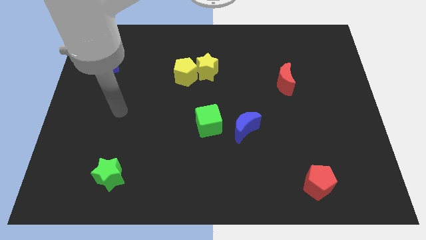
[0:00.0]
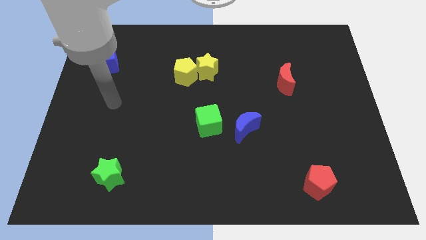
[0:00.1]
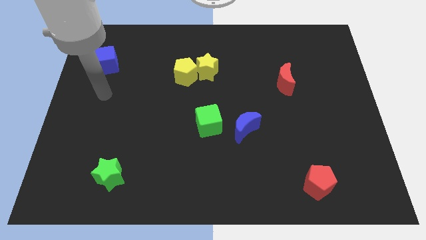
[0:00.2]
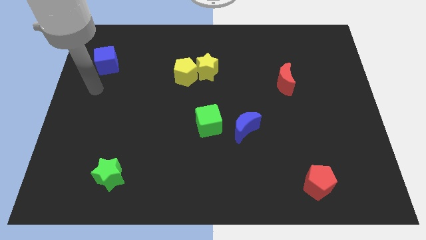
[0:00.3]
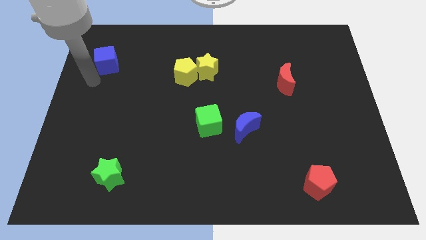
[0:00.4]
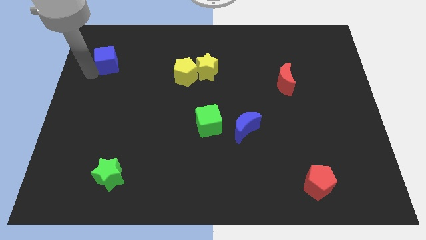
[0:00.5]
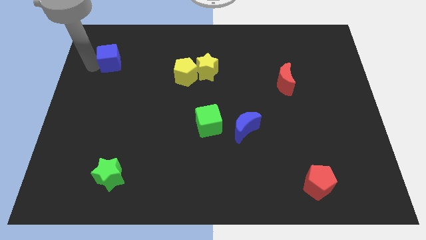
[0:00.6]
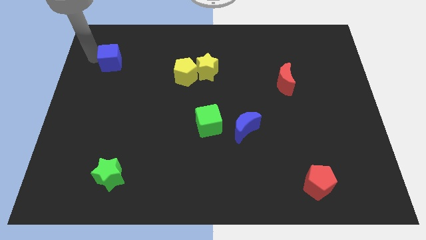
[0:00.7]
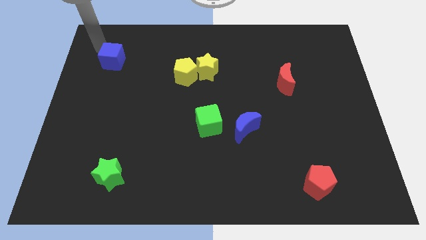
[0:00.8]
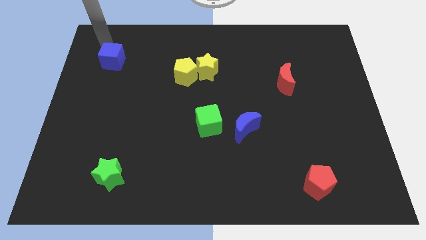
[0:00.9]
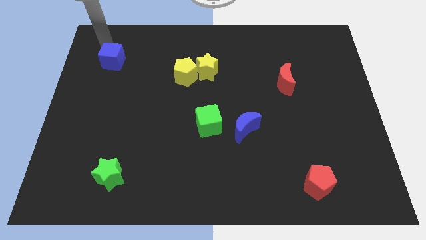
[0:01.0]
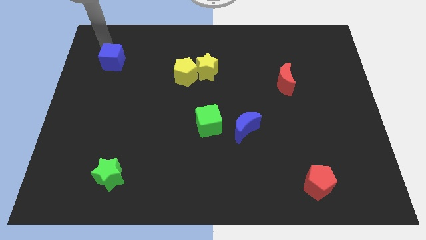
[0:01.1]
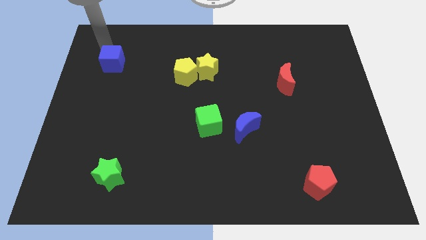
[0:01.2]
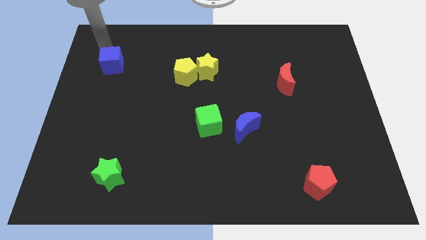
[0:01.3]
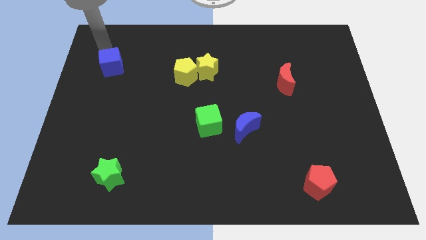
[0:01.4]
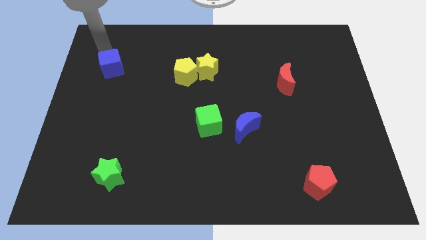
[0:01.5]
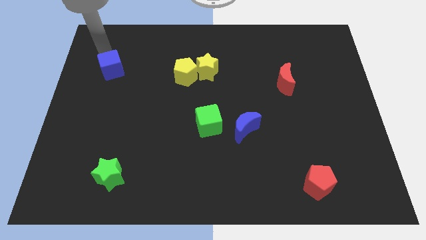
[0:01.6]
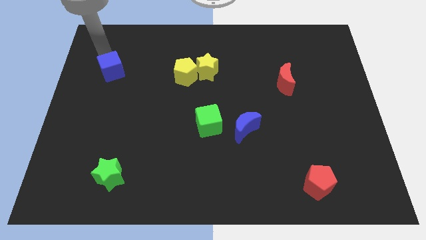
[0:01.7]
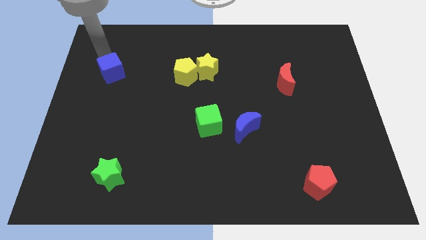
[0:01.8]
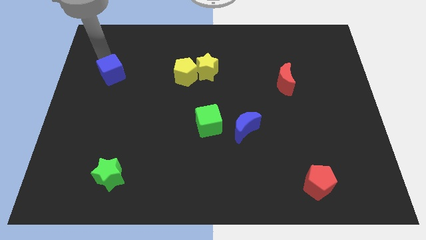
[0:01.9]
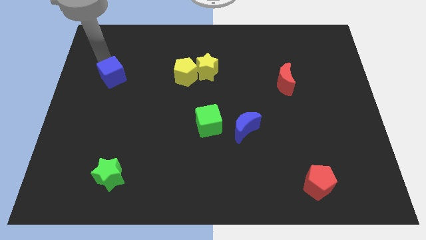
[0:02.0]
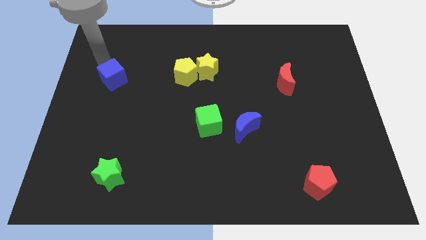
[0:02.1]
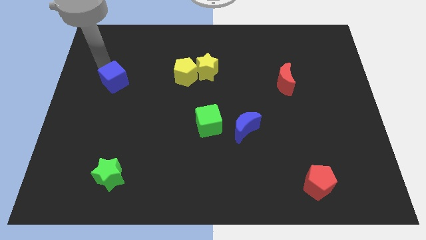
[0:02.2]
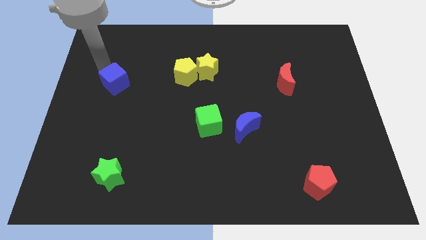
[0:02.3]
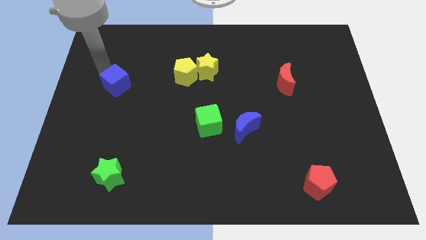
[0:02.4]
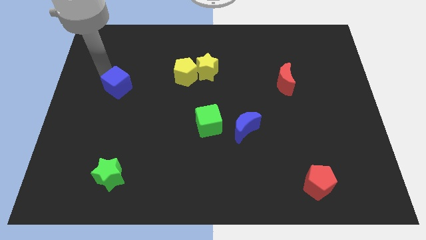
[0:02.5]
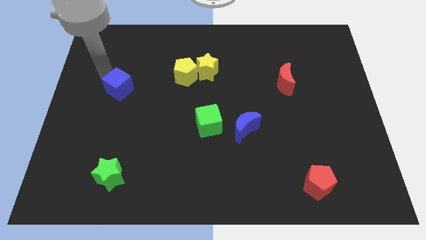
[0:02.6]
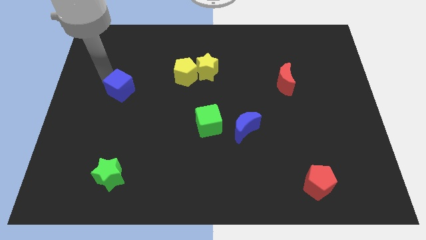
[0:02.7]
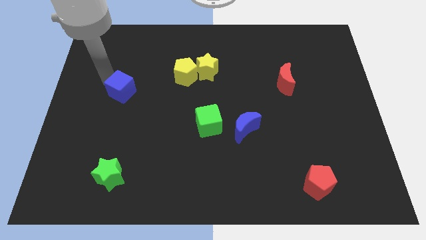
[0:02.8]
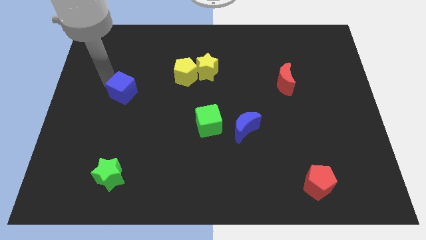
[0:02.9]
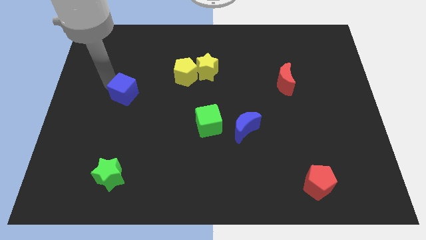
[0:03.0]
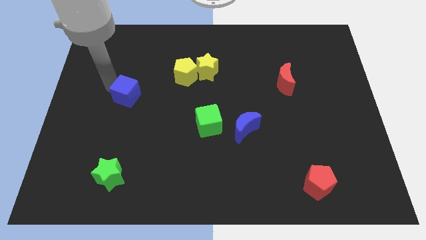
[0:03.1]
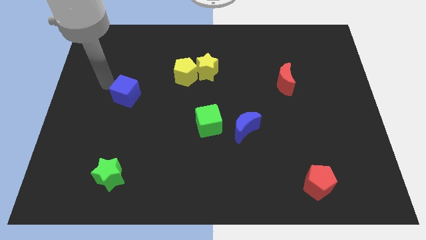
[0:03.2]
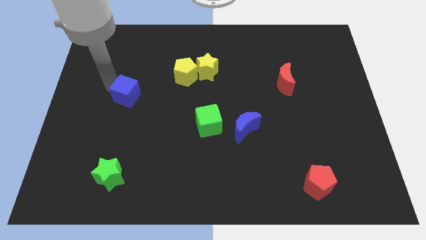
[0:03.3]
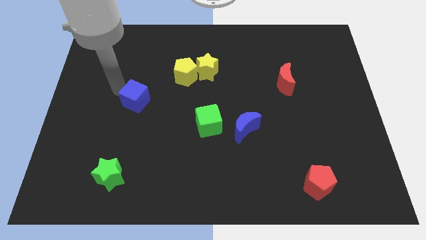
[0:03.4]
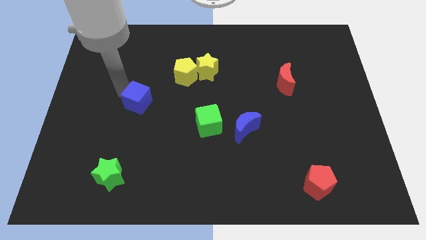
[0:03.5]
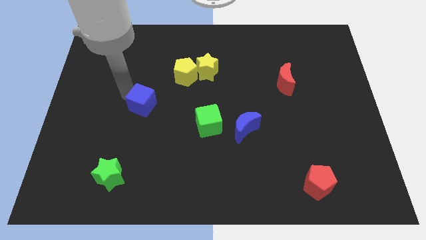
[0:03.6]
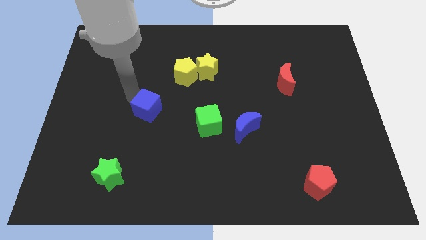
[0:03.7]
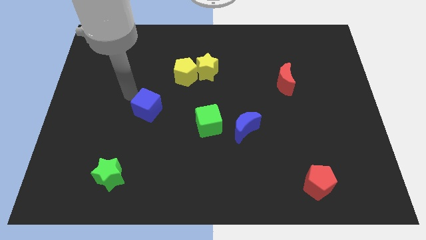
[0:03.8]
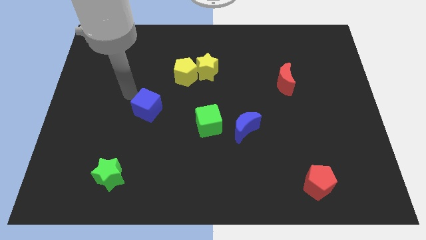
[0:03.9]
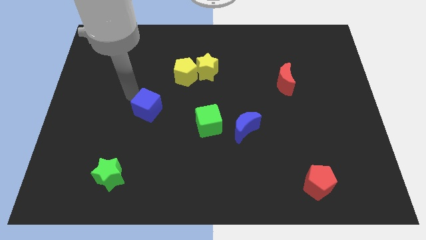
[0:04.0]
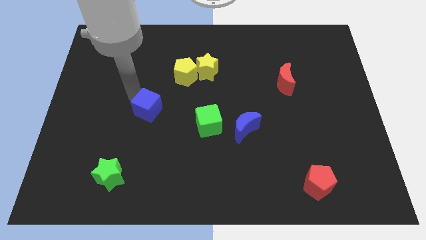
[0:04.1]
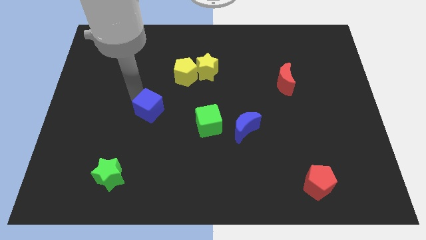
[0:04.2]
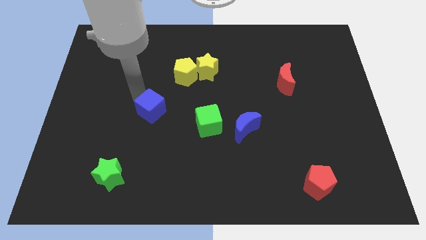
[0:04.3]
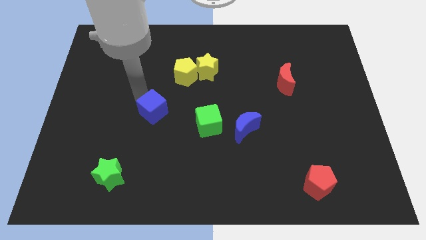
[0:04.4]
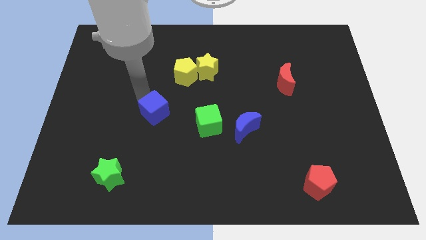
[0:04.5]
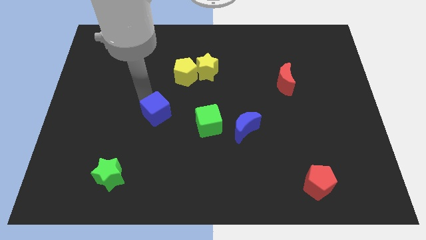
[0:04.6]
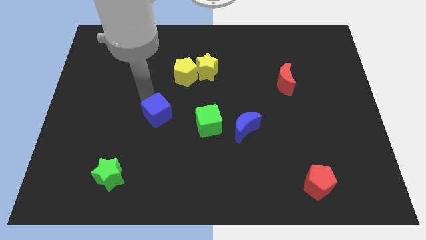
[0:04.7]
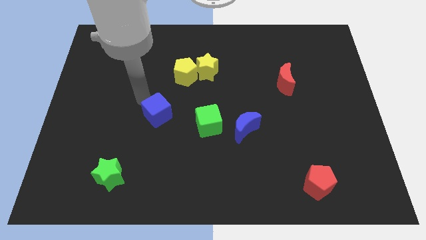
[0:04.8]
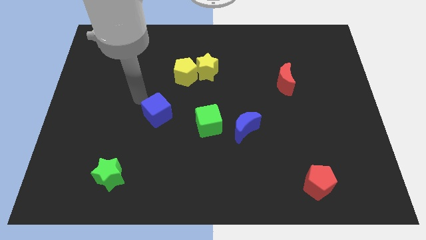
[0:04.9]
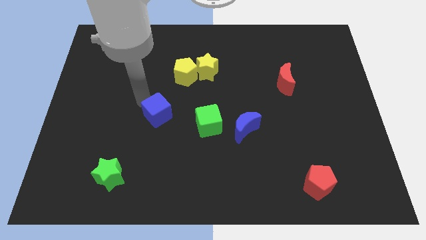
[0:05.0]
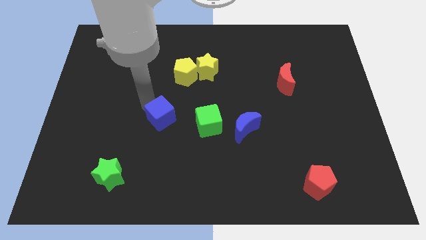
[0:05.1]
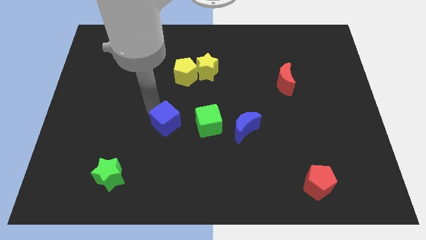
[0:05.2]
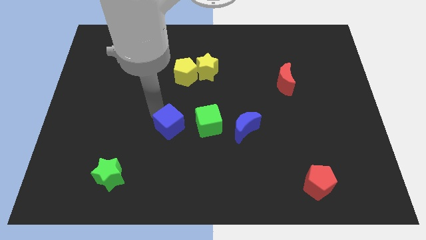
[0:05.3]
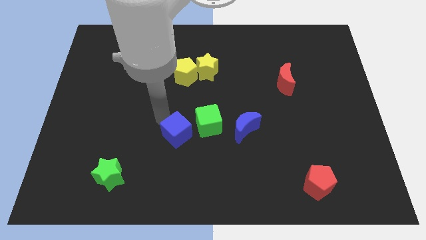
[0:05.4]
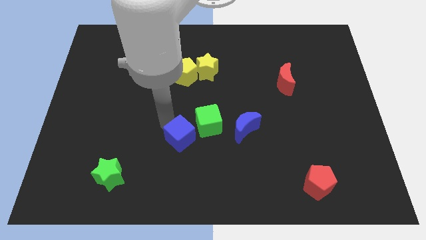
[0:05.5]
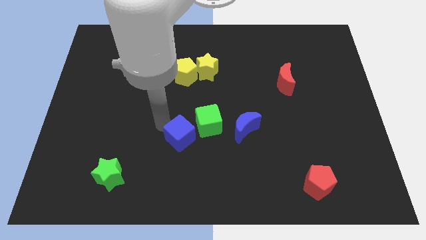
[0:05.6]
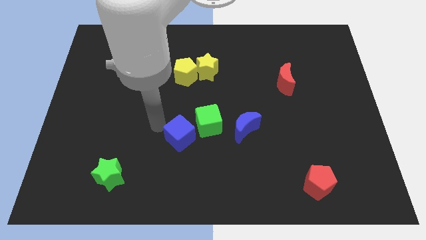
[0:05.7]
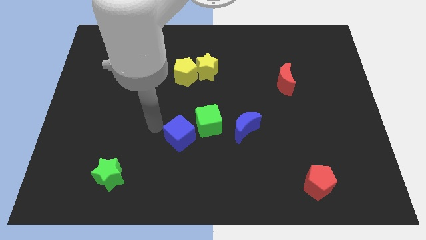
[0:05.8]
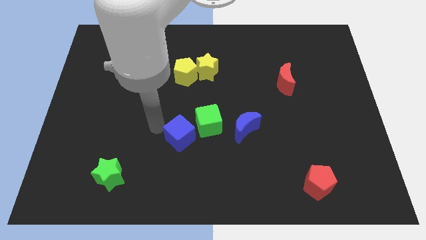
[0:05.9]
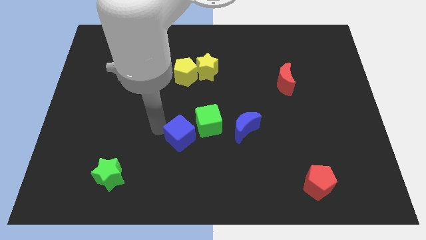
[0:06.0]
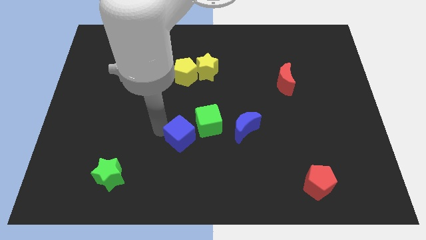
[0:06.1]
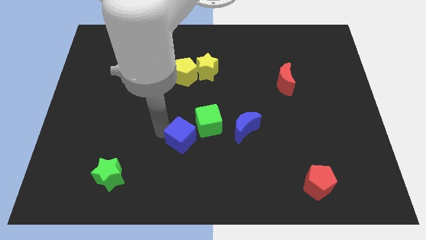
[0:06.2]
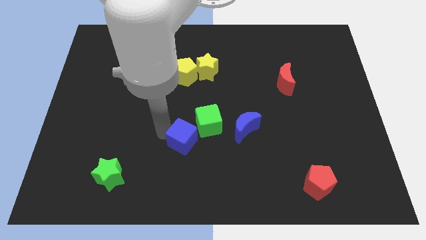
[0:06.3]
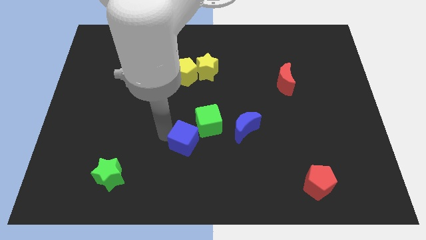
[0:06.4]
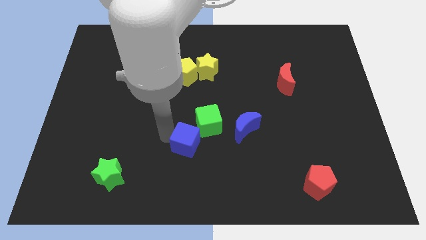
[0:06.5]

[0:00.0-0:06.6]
put the blue cube below the green cube
